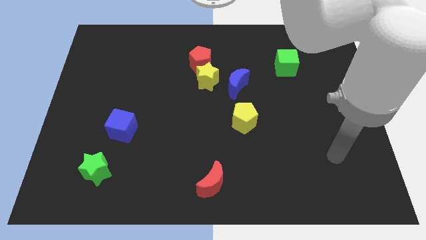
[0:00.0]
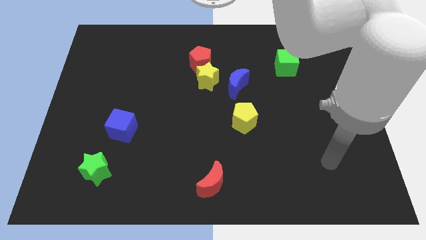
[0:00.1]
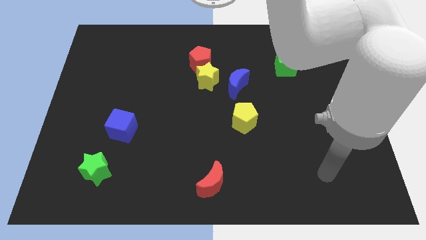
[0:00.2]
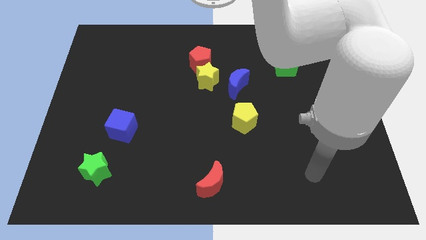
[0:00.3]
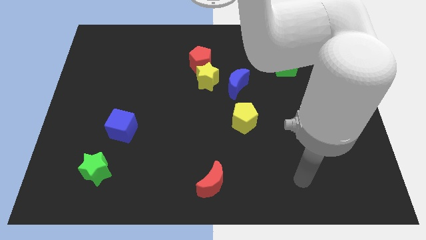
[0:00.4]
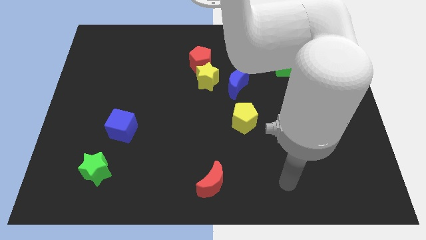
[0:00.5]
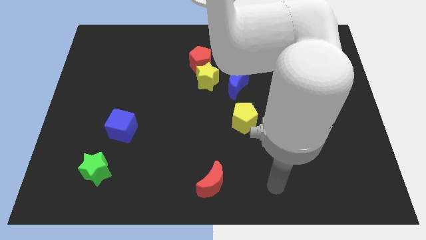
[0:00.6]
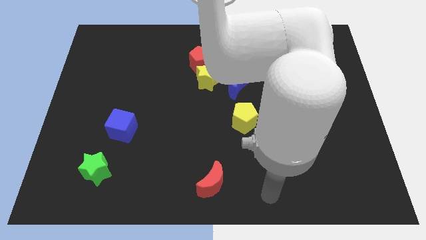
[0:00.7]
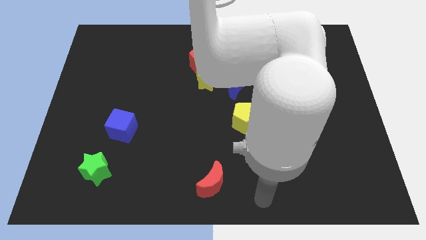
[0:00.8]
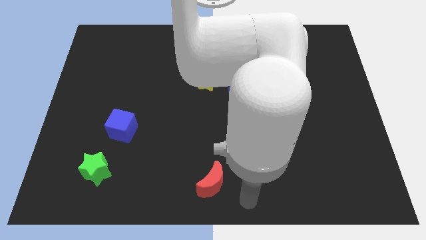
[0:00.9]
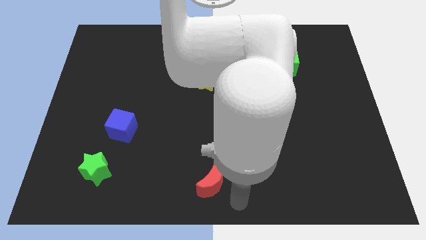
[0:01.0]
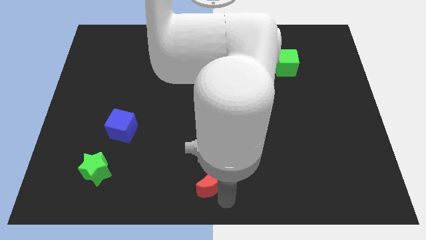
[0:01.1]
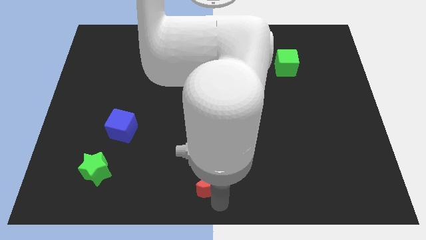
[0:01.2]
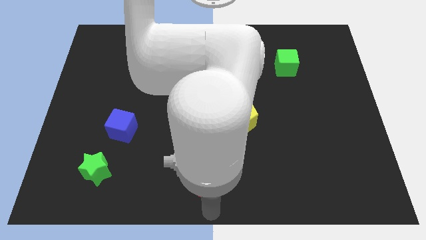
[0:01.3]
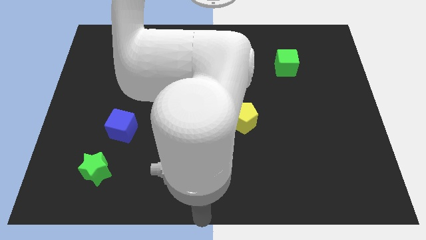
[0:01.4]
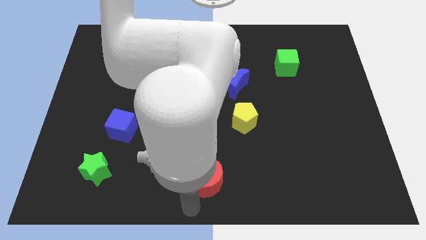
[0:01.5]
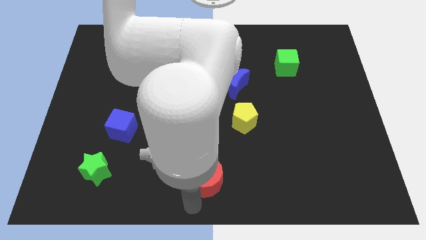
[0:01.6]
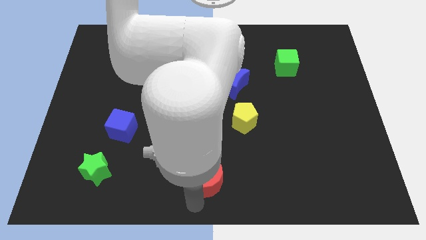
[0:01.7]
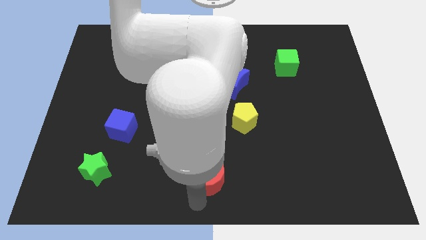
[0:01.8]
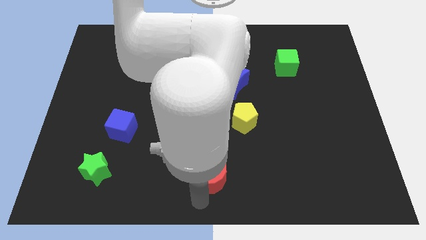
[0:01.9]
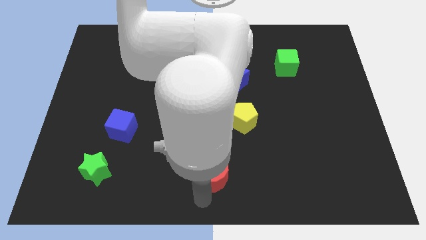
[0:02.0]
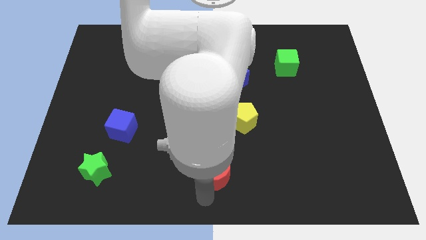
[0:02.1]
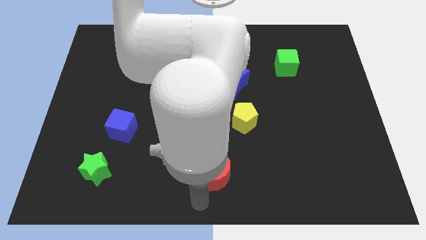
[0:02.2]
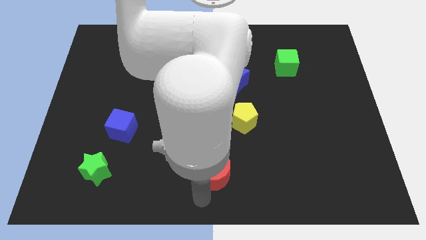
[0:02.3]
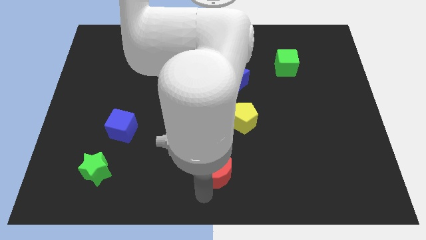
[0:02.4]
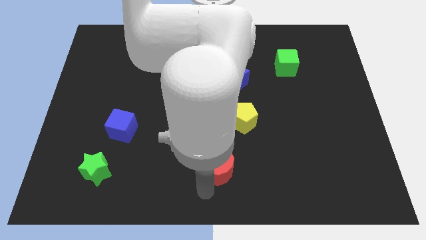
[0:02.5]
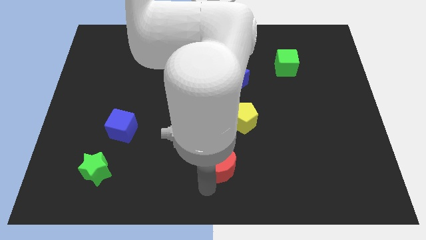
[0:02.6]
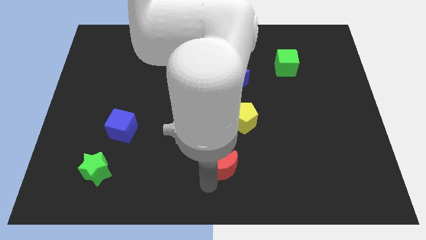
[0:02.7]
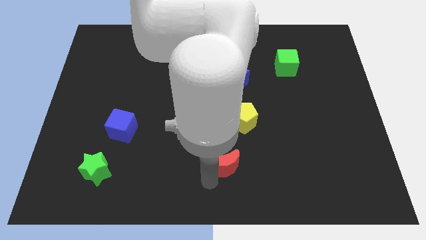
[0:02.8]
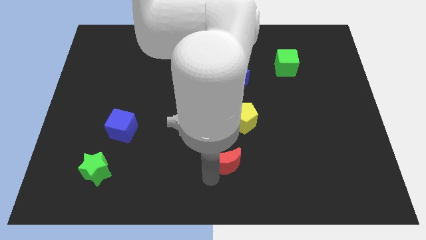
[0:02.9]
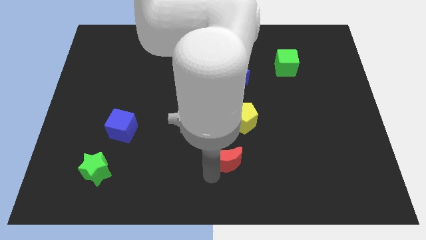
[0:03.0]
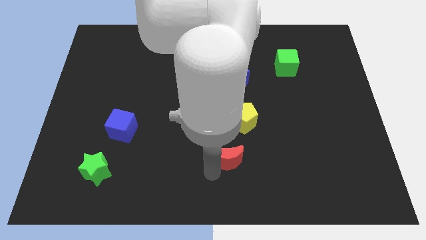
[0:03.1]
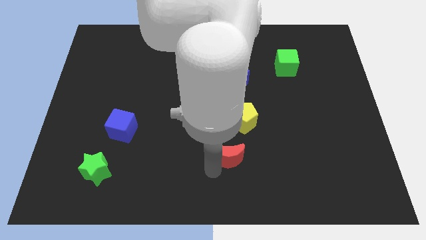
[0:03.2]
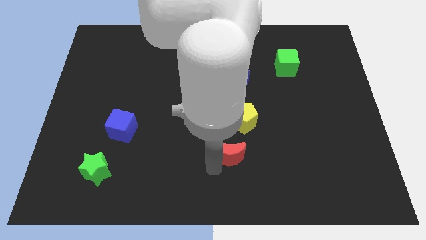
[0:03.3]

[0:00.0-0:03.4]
move the red moon up and to the right diagonally slightly

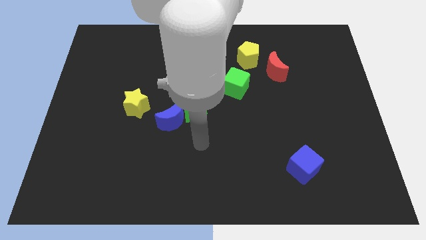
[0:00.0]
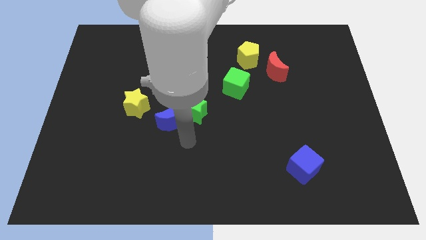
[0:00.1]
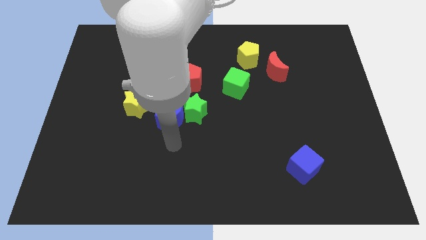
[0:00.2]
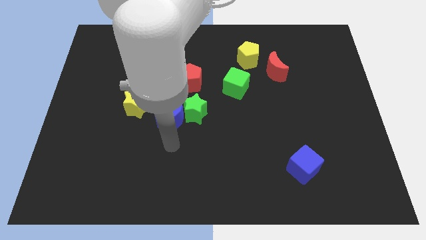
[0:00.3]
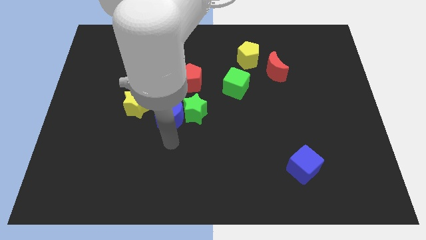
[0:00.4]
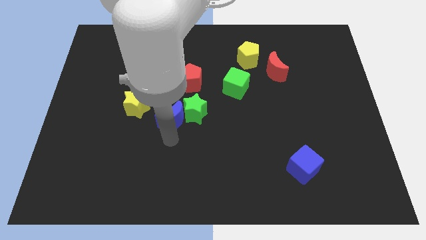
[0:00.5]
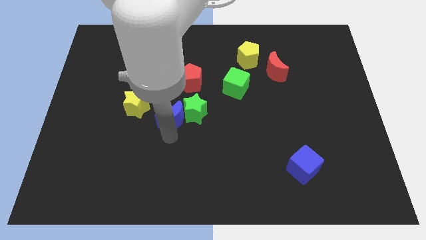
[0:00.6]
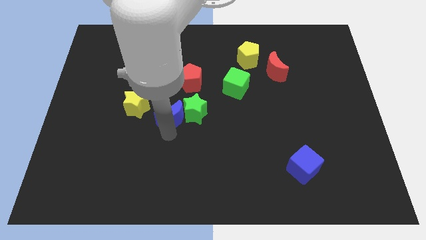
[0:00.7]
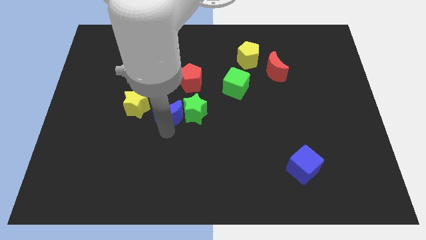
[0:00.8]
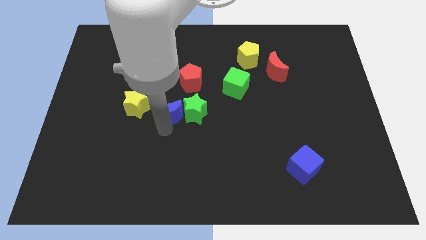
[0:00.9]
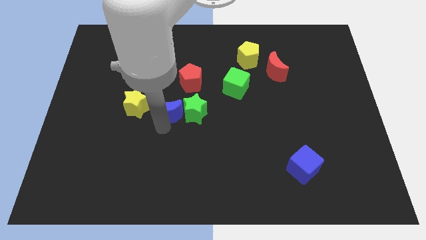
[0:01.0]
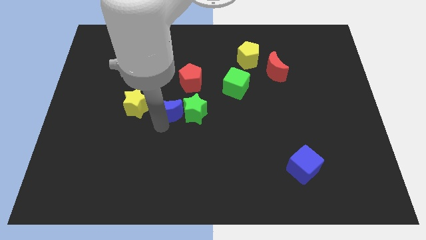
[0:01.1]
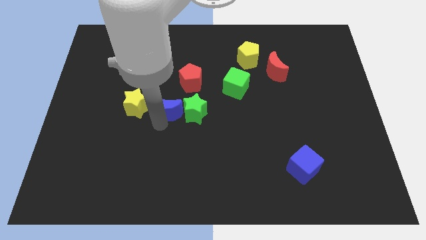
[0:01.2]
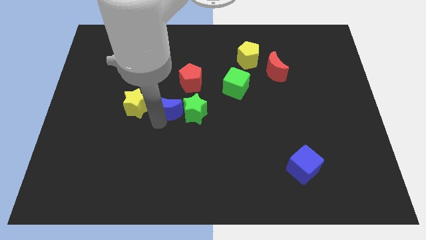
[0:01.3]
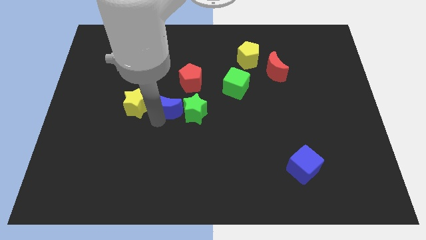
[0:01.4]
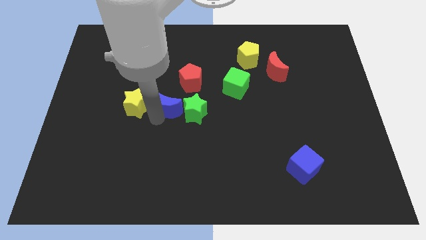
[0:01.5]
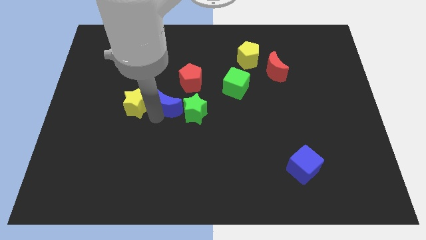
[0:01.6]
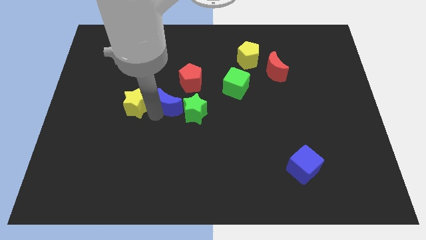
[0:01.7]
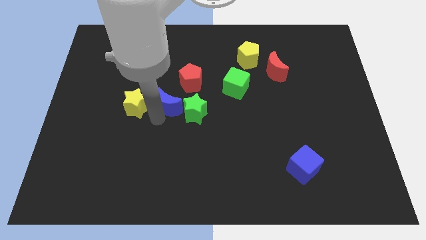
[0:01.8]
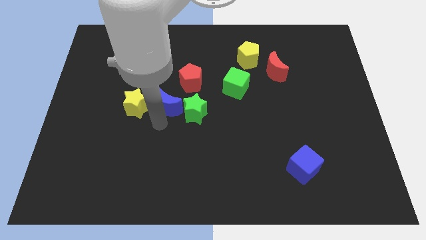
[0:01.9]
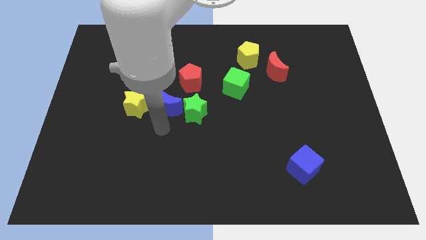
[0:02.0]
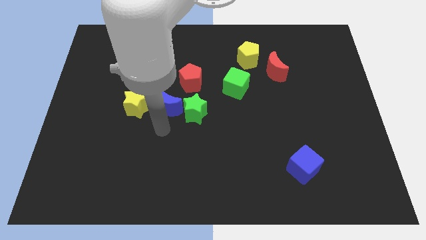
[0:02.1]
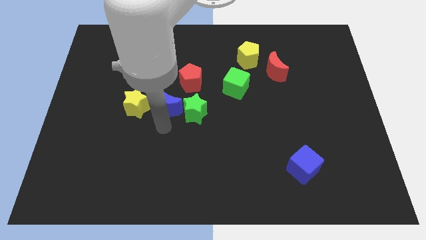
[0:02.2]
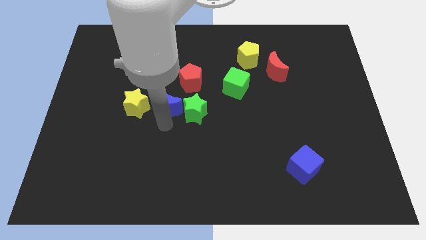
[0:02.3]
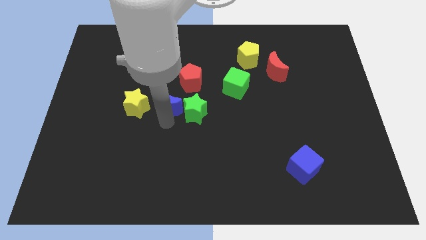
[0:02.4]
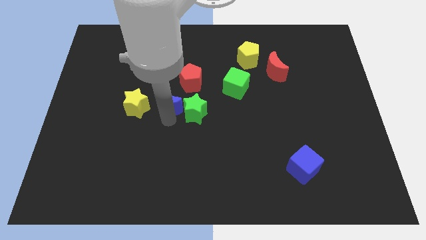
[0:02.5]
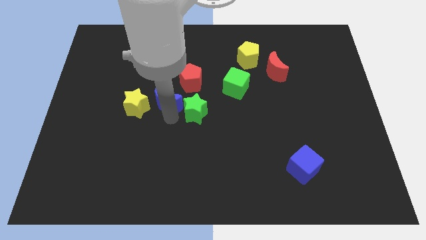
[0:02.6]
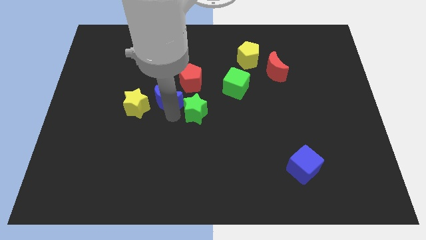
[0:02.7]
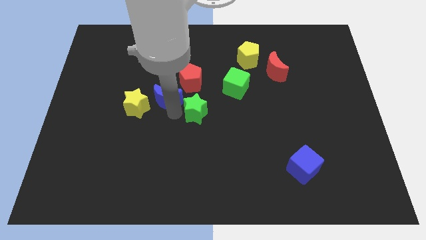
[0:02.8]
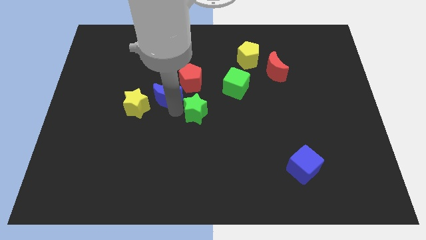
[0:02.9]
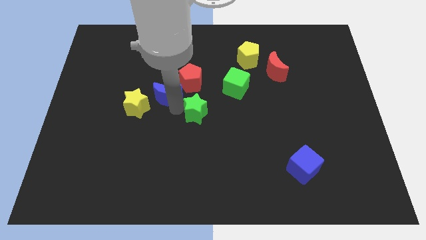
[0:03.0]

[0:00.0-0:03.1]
move the blue moon upwards a little bit

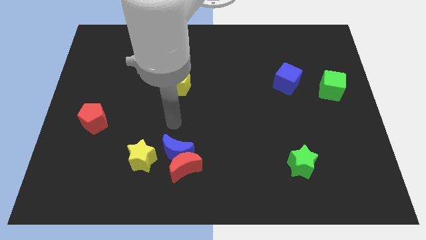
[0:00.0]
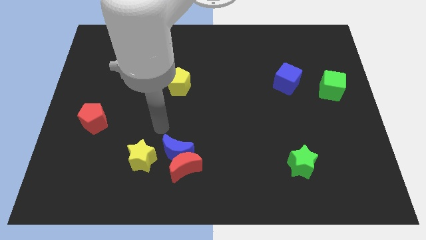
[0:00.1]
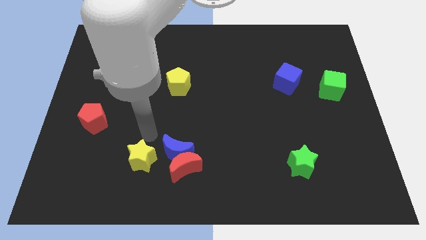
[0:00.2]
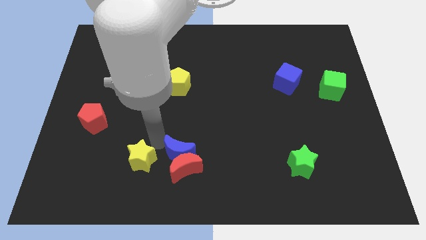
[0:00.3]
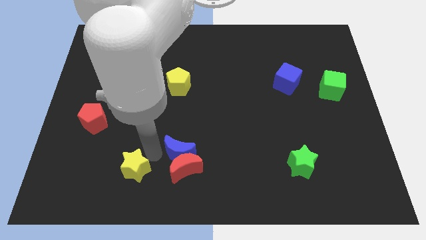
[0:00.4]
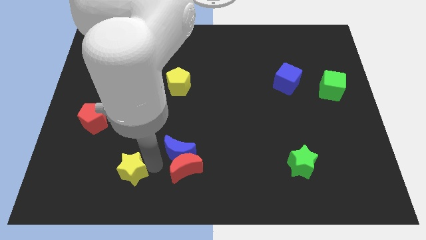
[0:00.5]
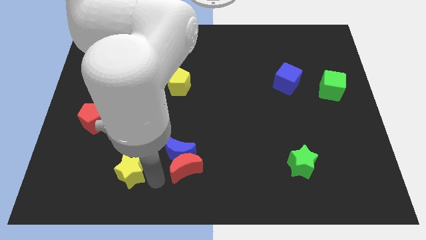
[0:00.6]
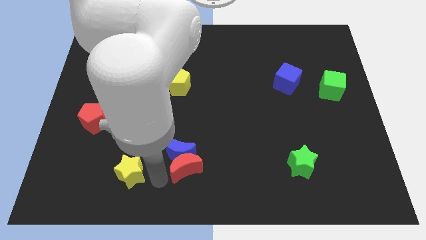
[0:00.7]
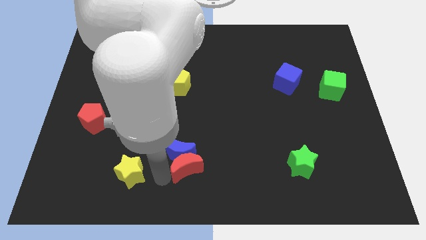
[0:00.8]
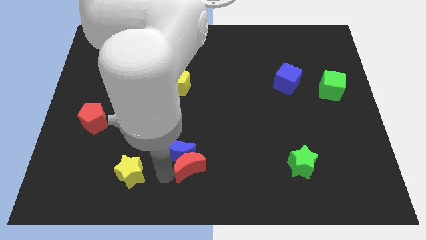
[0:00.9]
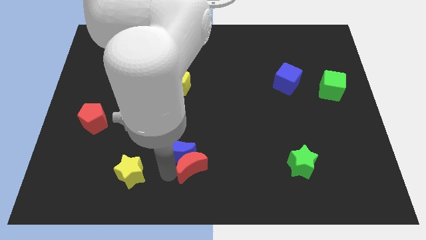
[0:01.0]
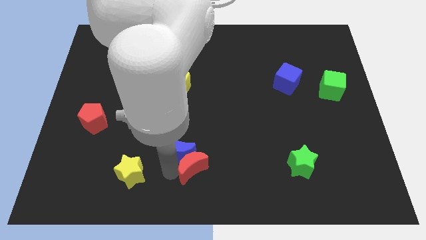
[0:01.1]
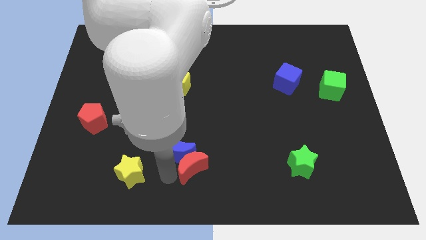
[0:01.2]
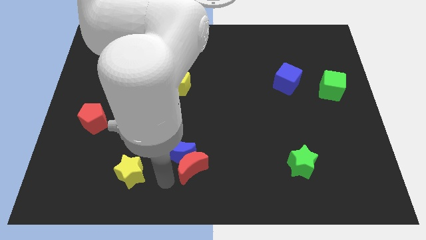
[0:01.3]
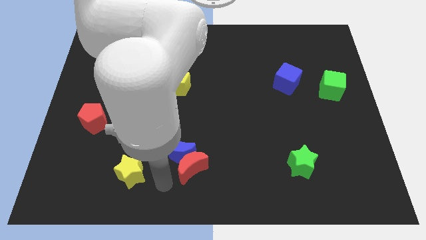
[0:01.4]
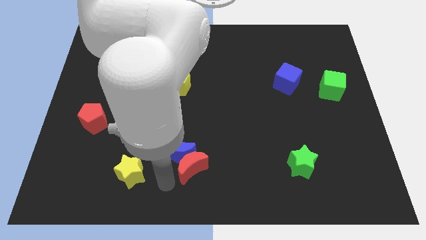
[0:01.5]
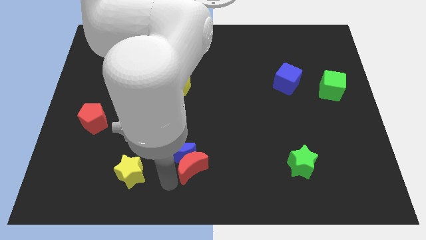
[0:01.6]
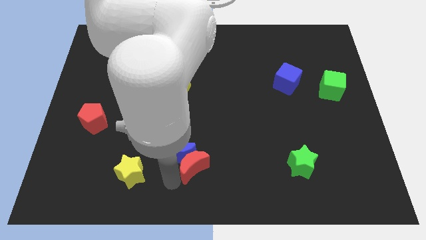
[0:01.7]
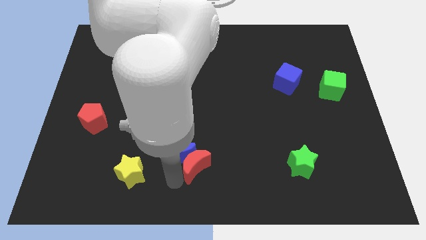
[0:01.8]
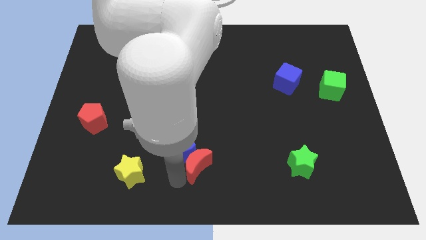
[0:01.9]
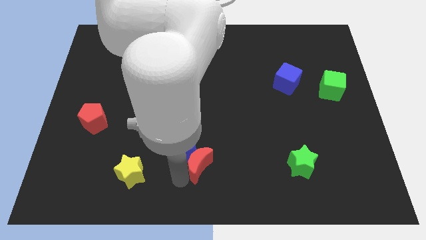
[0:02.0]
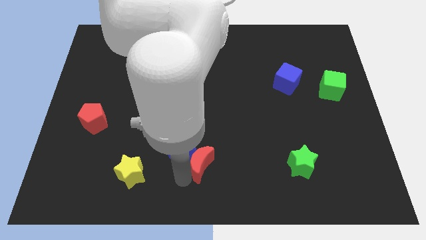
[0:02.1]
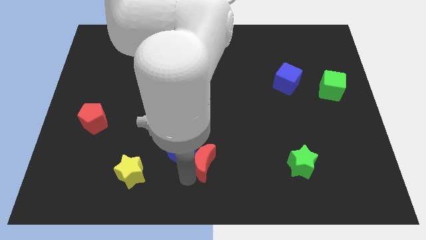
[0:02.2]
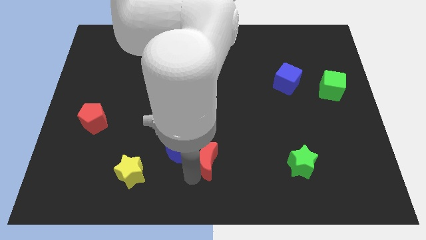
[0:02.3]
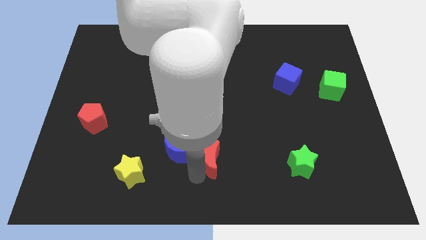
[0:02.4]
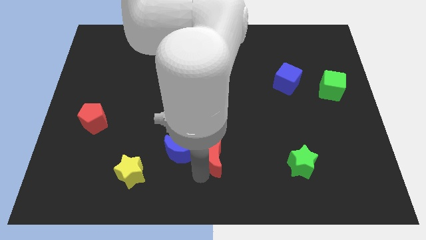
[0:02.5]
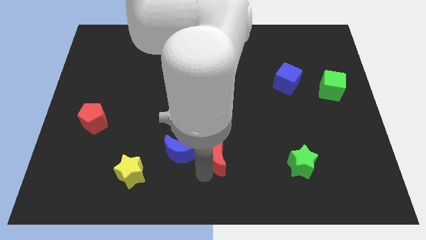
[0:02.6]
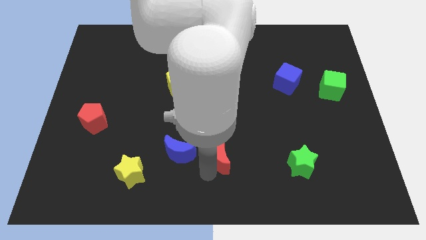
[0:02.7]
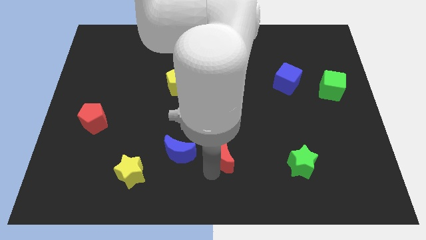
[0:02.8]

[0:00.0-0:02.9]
push the red moon a little bit diagonally up and to the right
